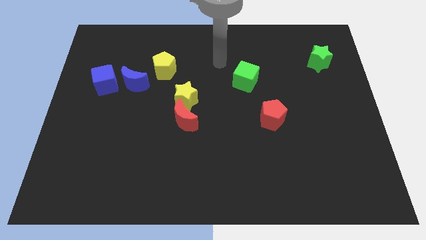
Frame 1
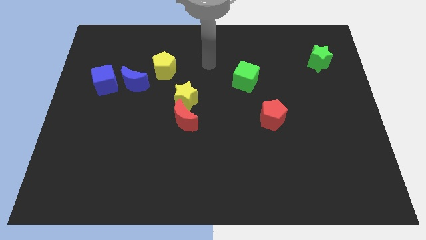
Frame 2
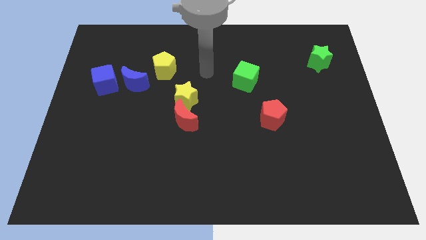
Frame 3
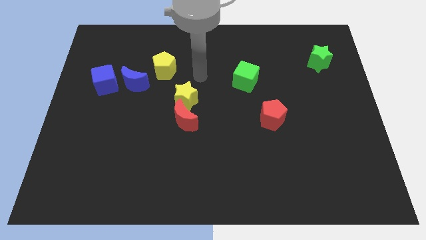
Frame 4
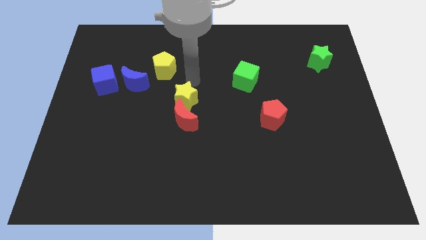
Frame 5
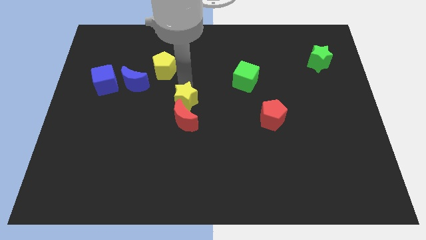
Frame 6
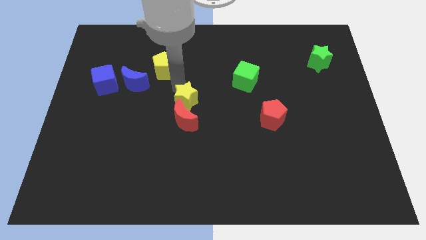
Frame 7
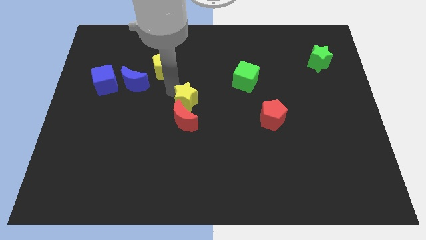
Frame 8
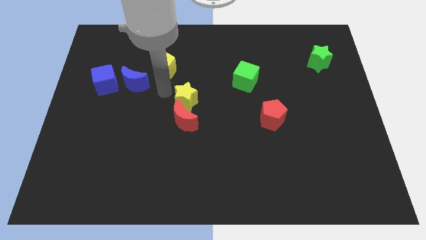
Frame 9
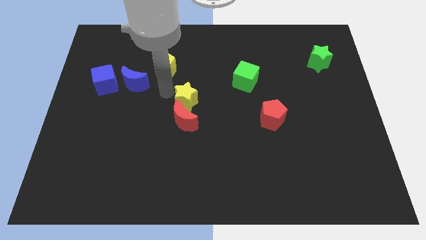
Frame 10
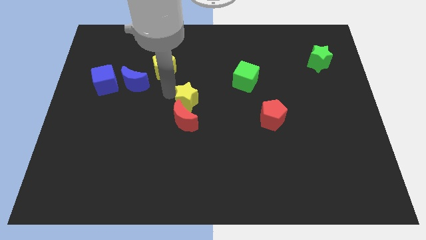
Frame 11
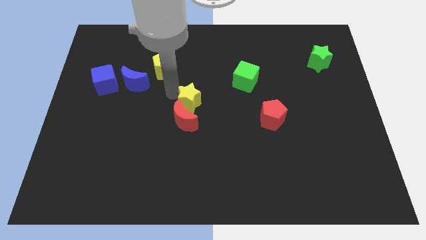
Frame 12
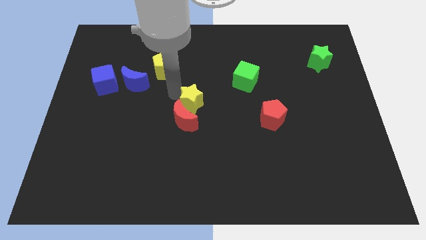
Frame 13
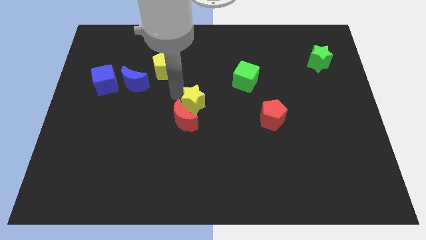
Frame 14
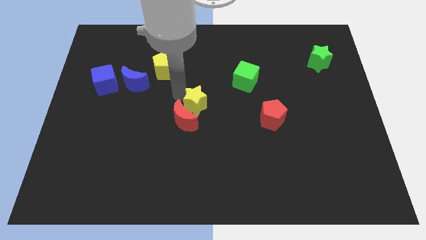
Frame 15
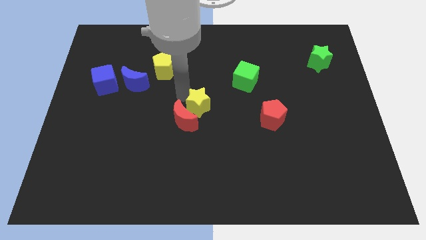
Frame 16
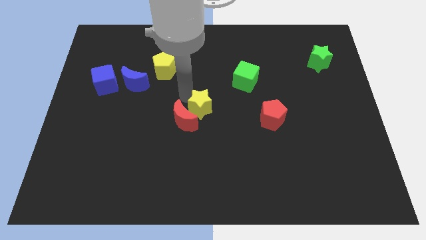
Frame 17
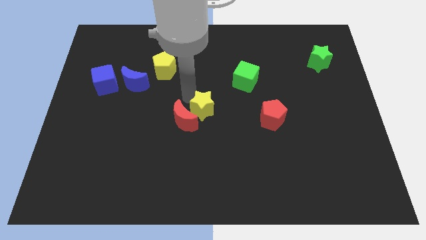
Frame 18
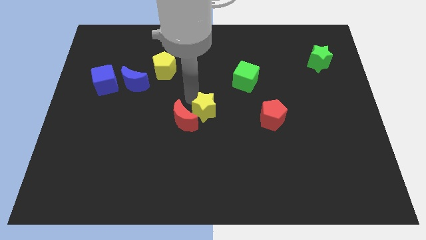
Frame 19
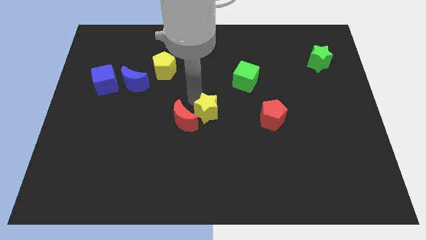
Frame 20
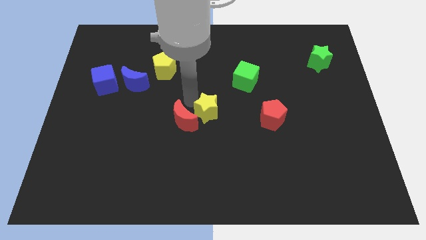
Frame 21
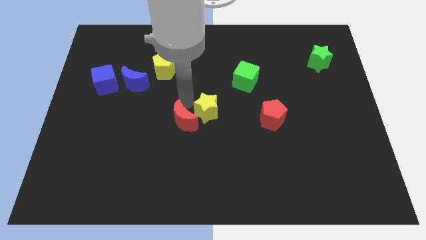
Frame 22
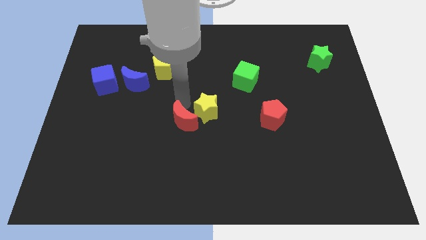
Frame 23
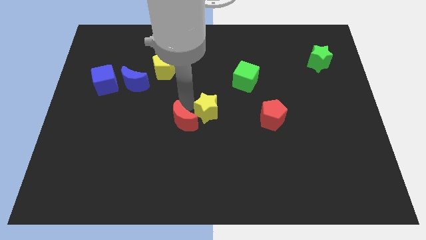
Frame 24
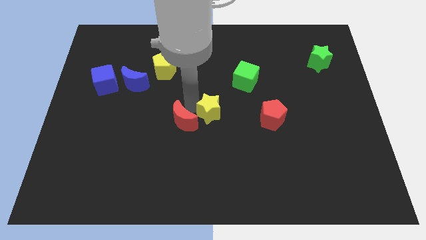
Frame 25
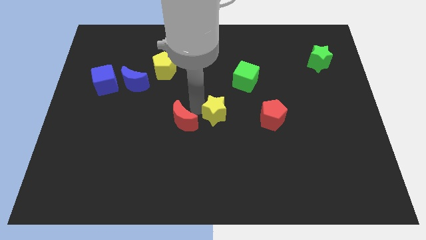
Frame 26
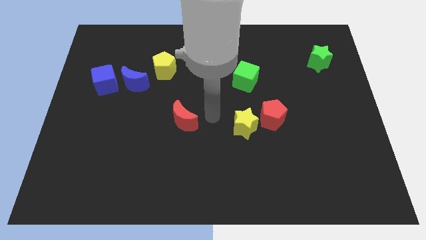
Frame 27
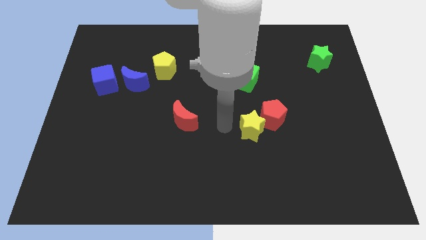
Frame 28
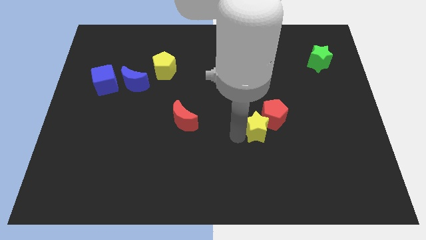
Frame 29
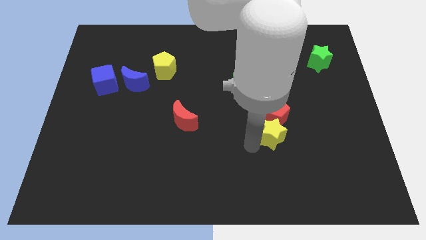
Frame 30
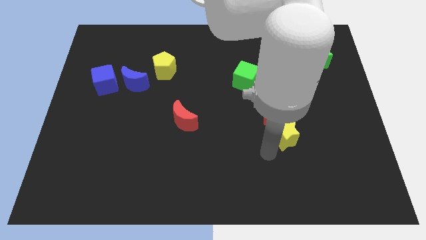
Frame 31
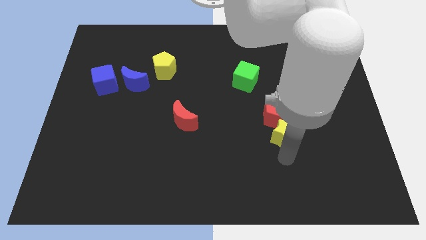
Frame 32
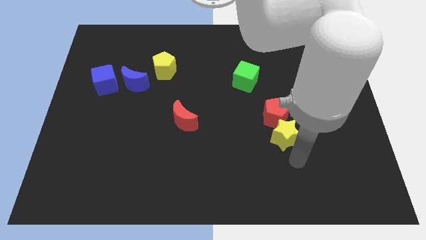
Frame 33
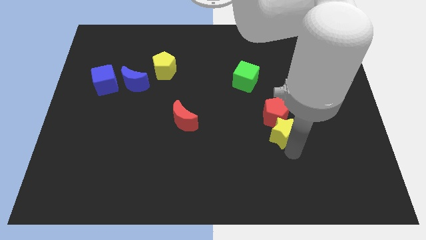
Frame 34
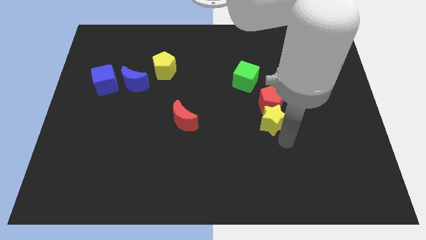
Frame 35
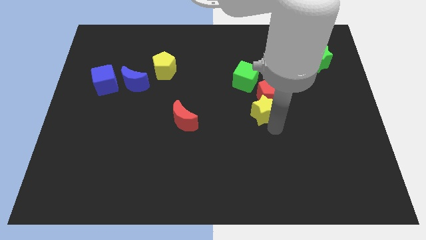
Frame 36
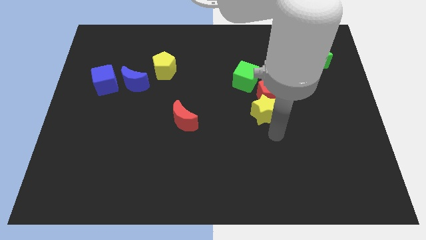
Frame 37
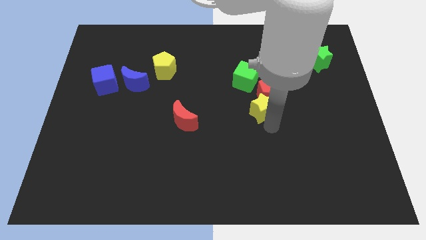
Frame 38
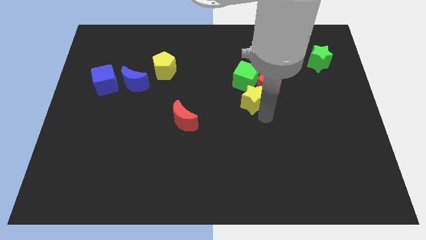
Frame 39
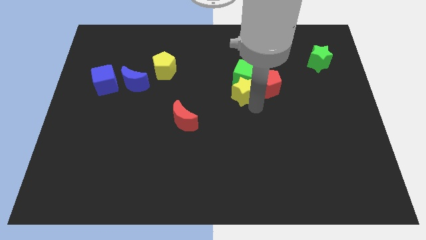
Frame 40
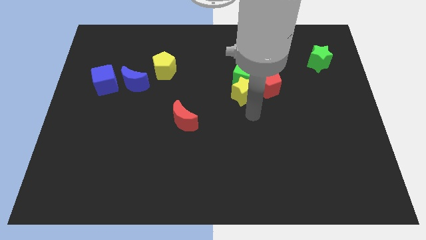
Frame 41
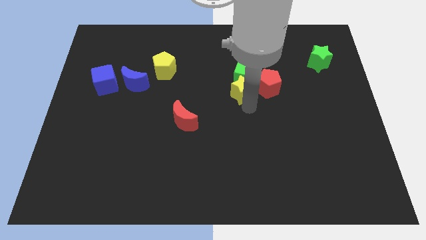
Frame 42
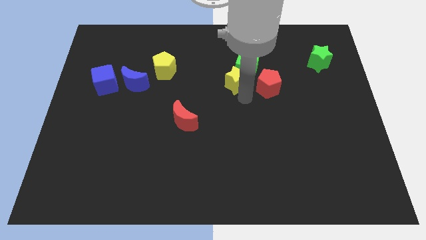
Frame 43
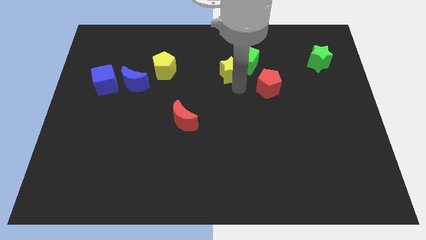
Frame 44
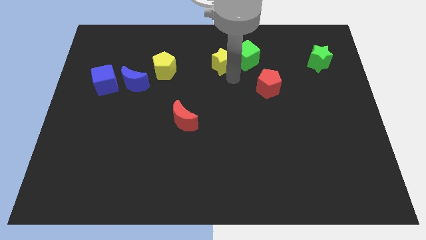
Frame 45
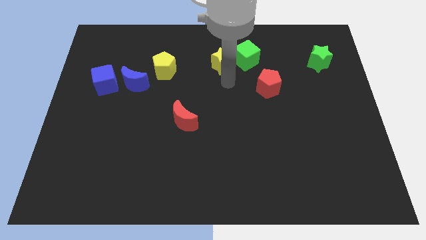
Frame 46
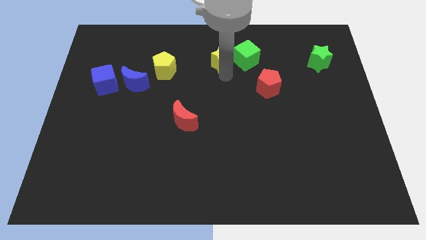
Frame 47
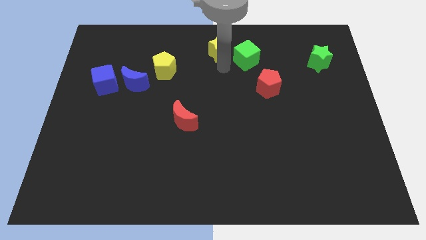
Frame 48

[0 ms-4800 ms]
move the yellow star to the top
